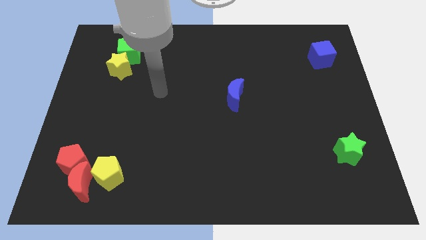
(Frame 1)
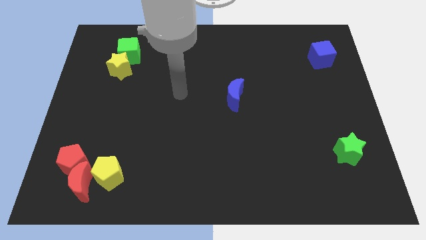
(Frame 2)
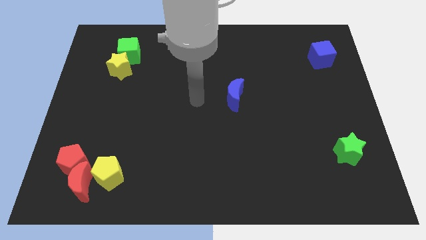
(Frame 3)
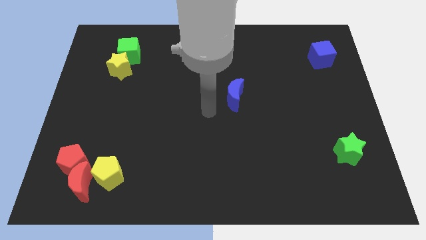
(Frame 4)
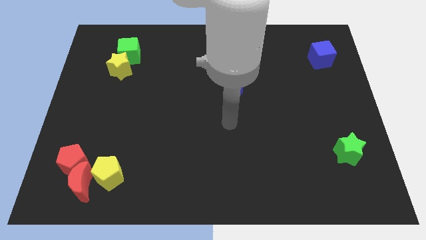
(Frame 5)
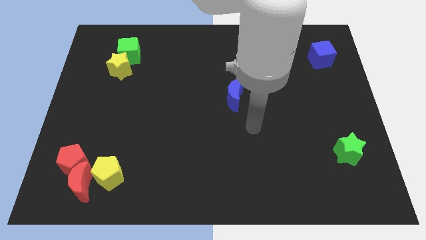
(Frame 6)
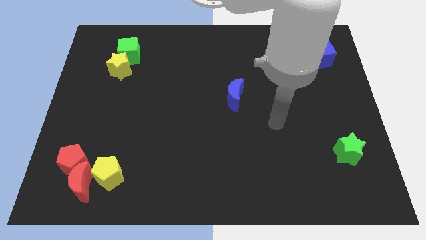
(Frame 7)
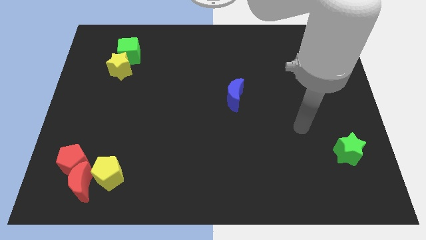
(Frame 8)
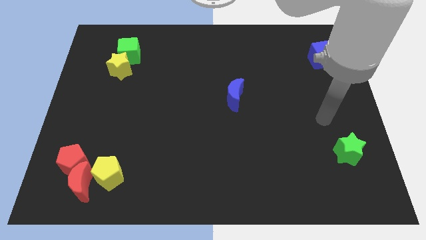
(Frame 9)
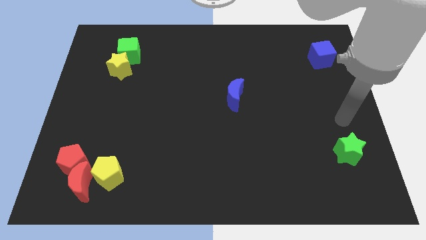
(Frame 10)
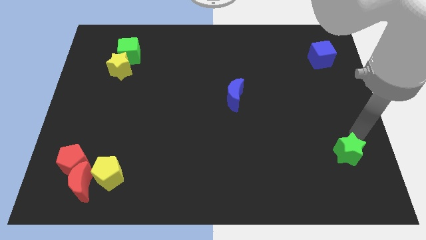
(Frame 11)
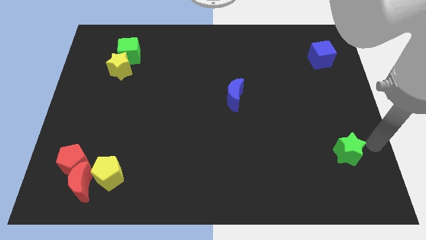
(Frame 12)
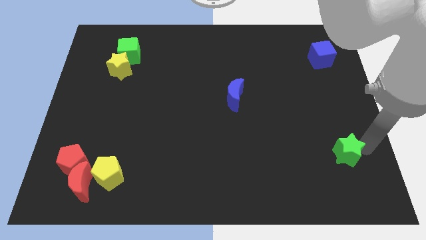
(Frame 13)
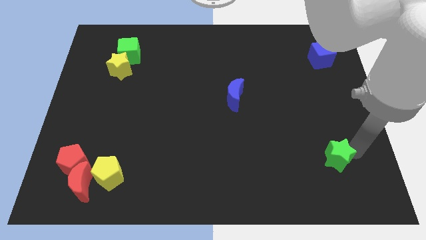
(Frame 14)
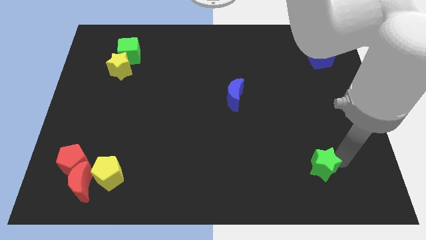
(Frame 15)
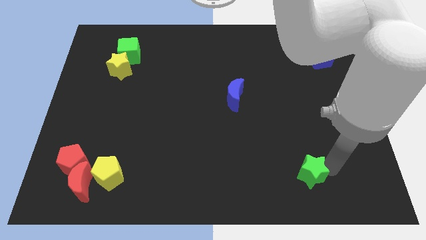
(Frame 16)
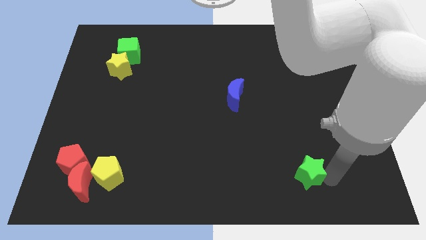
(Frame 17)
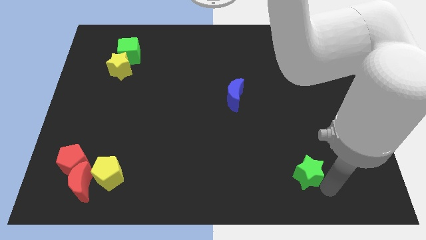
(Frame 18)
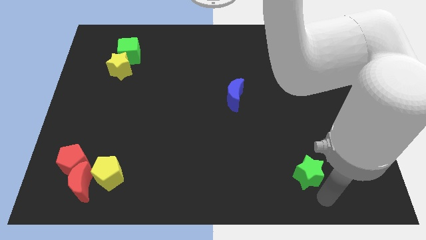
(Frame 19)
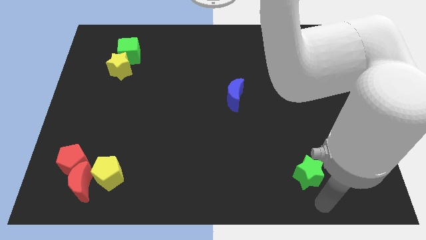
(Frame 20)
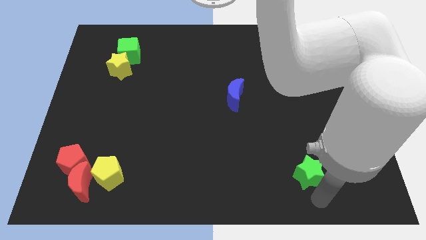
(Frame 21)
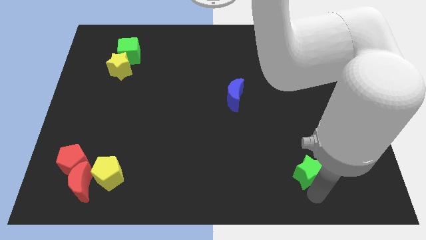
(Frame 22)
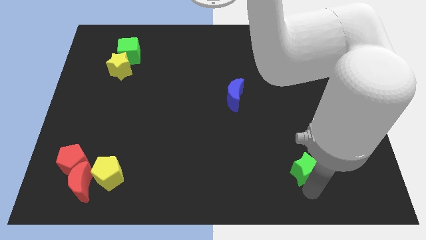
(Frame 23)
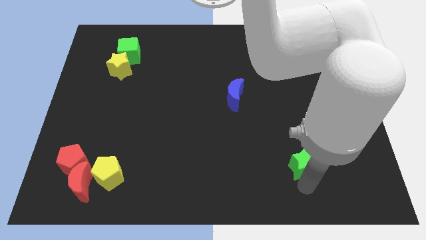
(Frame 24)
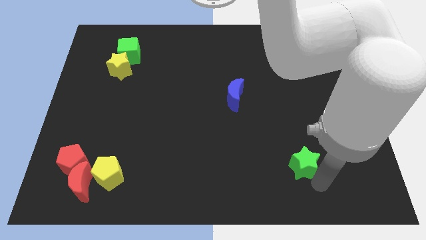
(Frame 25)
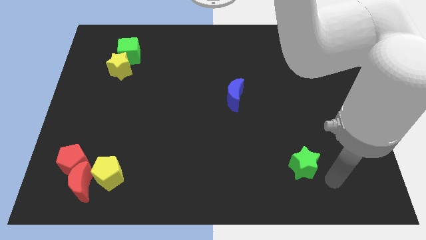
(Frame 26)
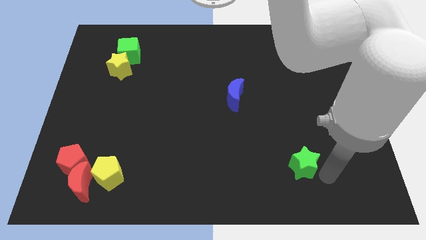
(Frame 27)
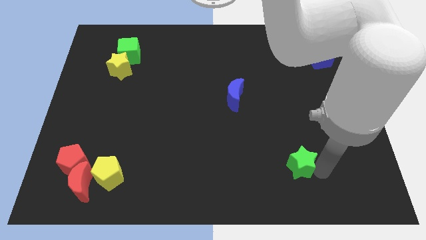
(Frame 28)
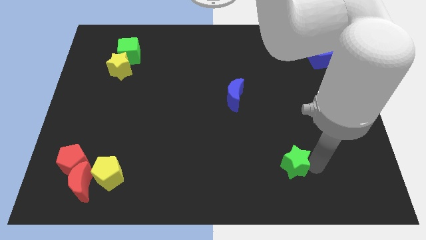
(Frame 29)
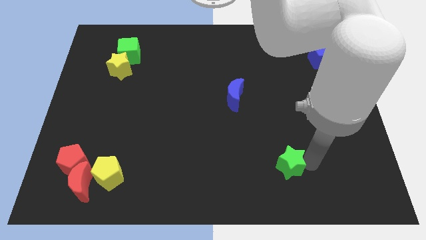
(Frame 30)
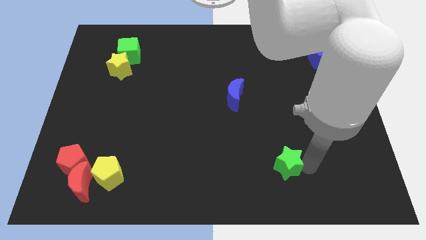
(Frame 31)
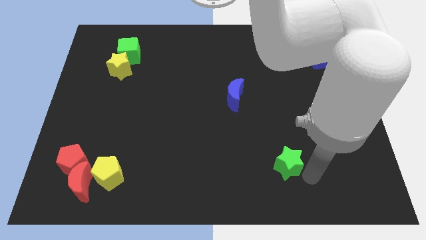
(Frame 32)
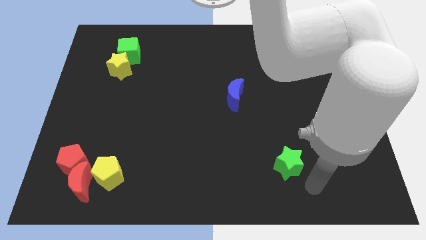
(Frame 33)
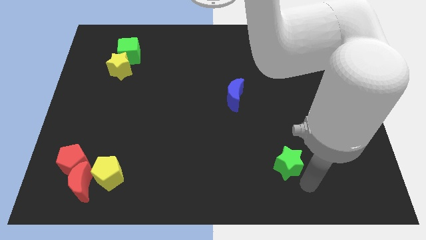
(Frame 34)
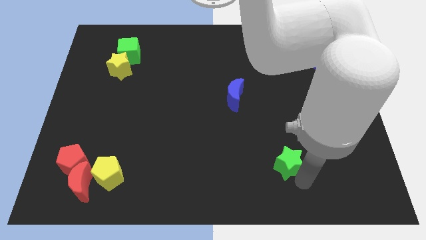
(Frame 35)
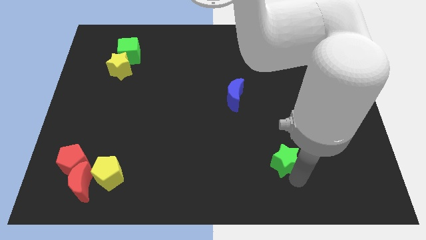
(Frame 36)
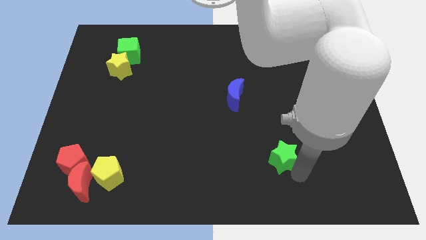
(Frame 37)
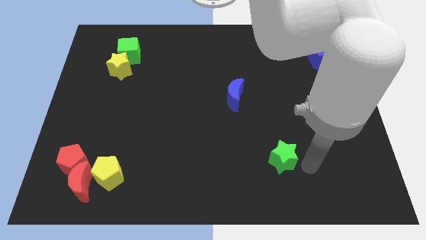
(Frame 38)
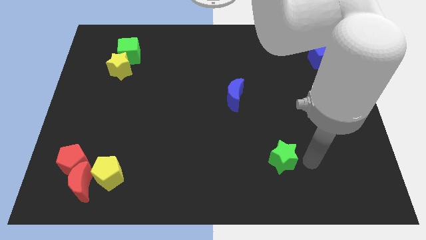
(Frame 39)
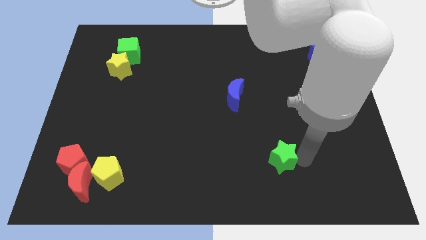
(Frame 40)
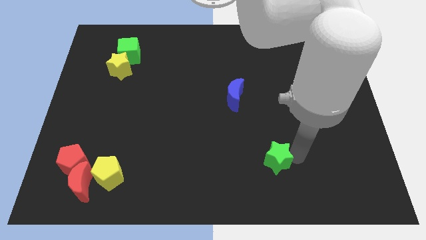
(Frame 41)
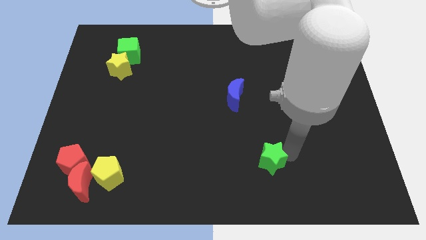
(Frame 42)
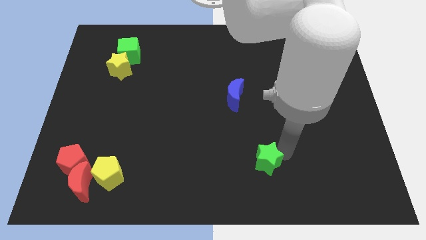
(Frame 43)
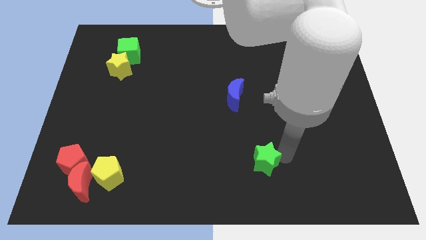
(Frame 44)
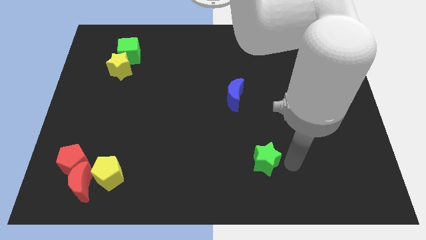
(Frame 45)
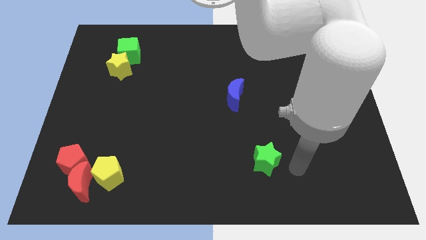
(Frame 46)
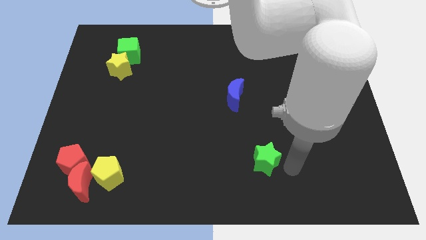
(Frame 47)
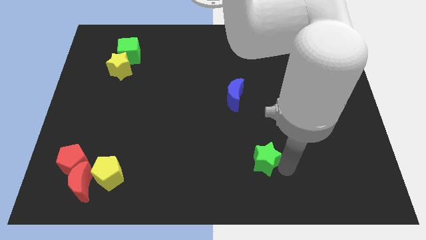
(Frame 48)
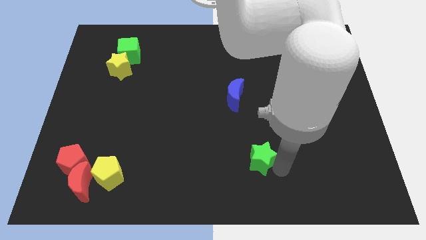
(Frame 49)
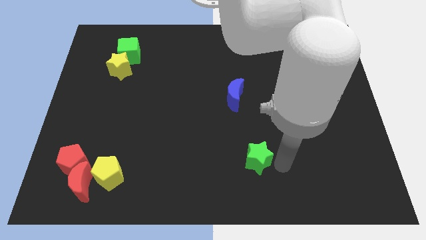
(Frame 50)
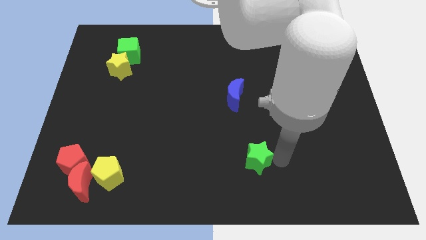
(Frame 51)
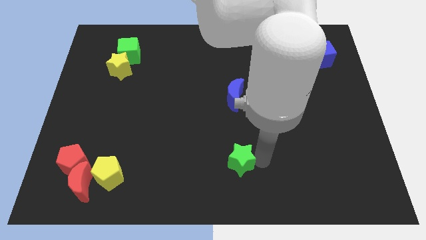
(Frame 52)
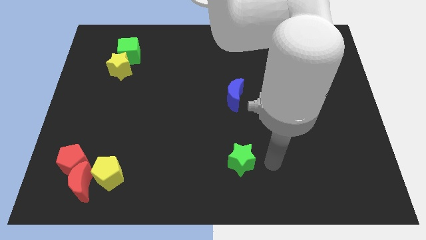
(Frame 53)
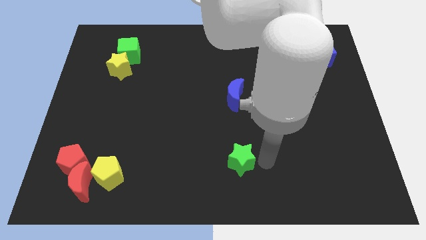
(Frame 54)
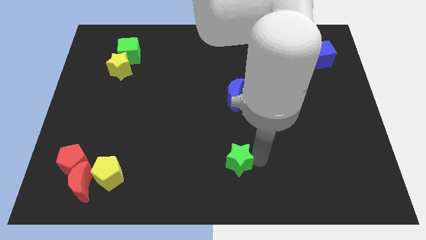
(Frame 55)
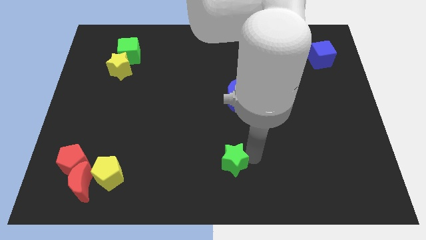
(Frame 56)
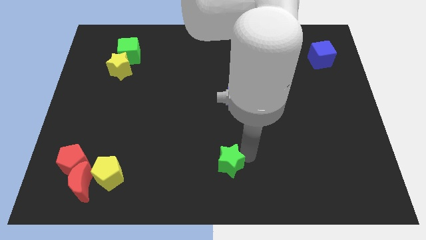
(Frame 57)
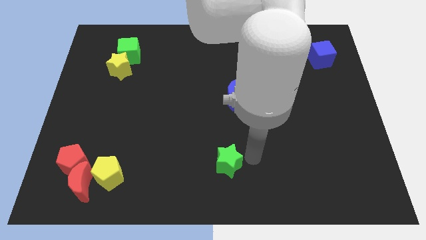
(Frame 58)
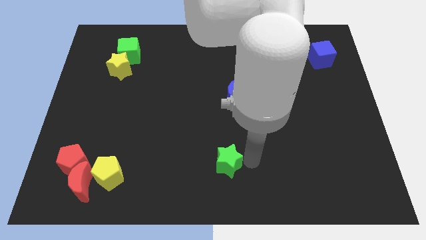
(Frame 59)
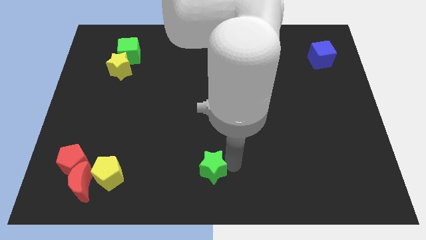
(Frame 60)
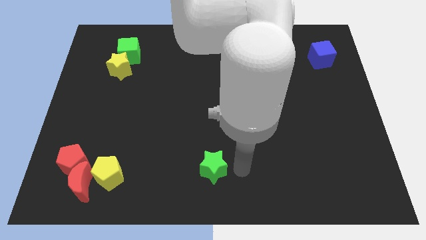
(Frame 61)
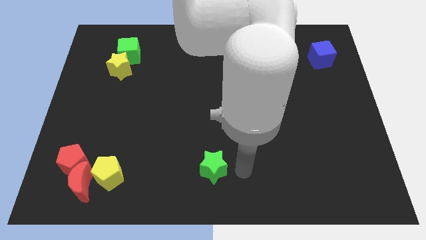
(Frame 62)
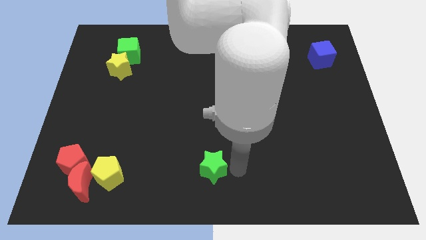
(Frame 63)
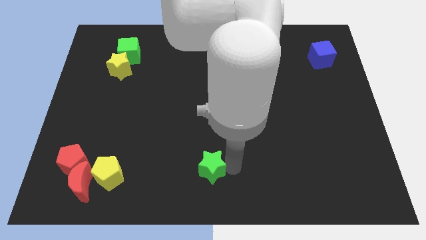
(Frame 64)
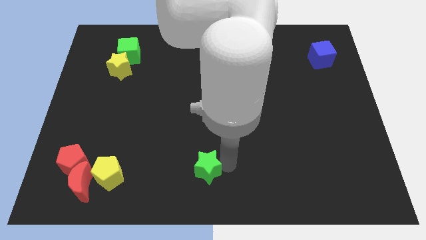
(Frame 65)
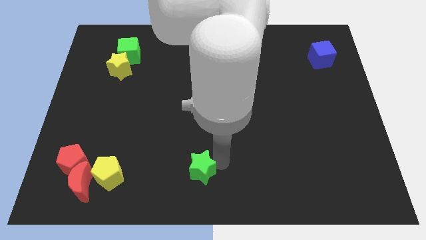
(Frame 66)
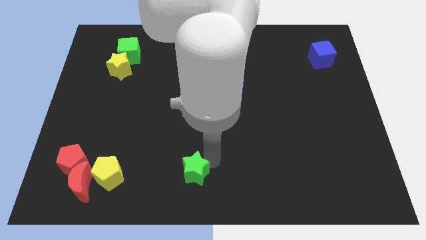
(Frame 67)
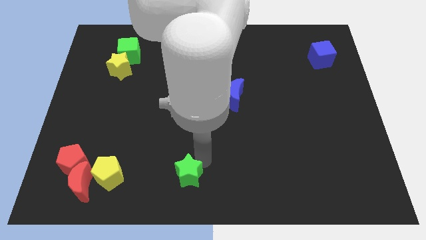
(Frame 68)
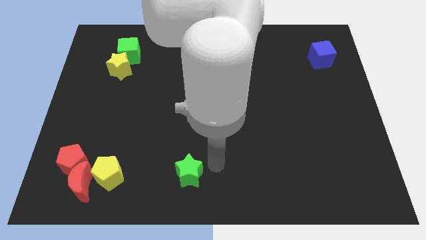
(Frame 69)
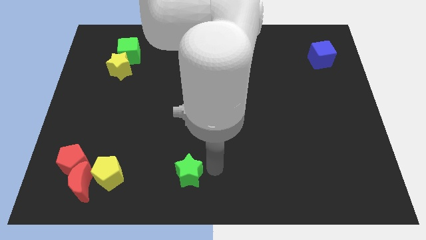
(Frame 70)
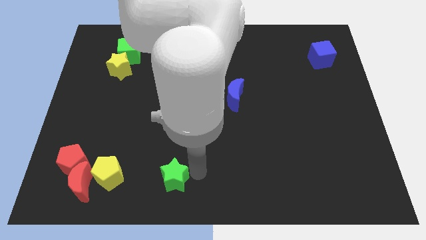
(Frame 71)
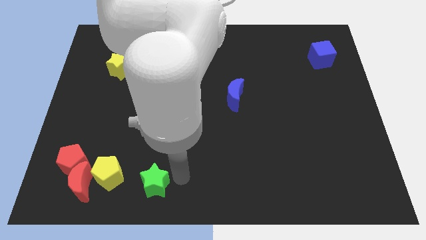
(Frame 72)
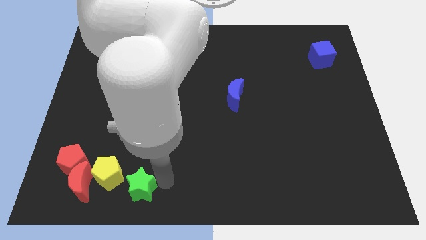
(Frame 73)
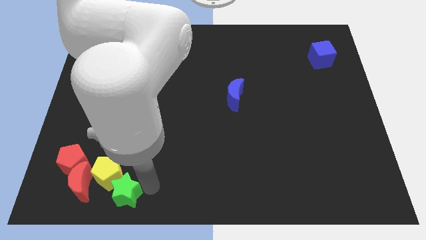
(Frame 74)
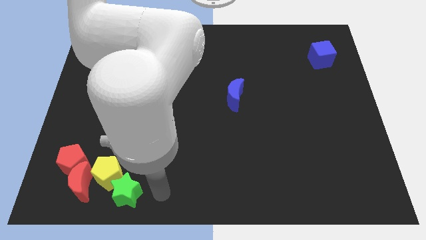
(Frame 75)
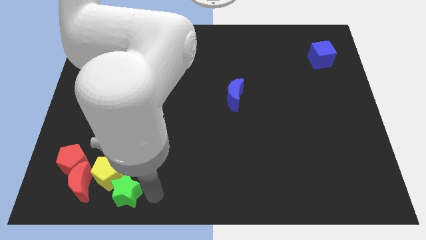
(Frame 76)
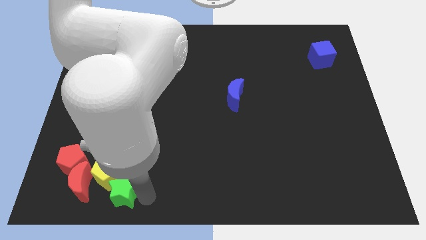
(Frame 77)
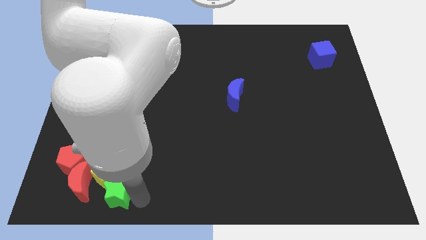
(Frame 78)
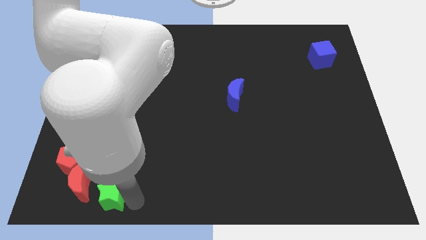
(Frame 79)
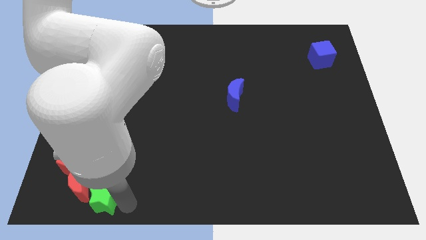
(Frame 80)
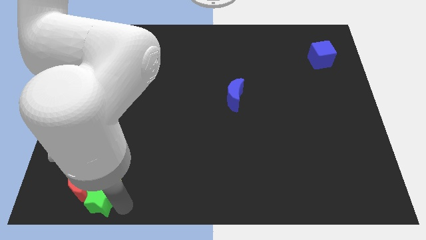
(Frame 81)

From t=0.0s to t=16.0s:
push the green star close to the red moon
